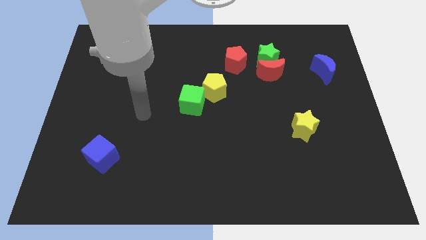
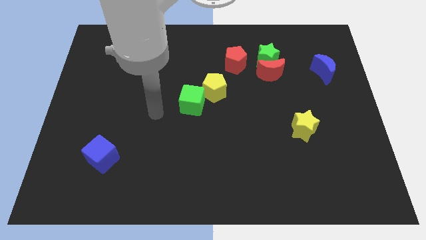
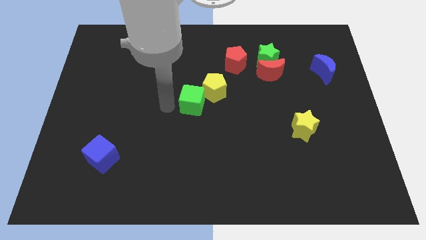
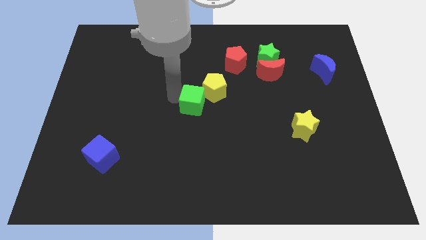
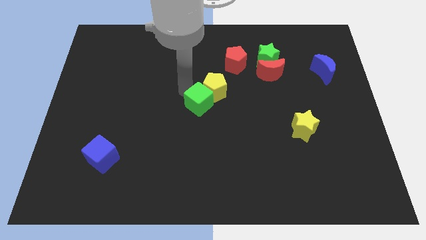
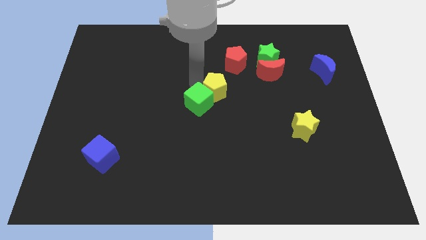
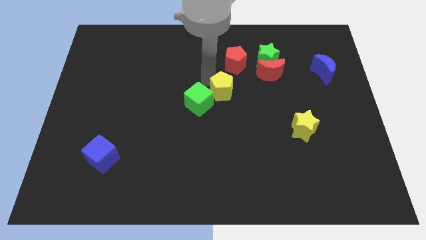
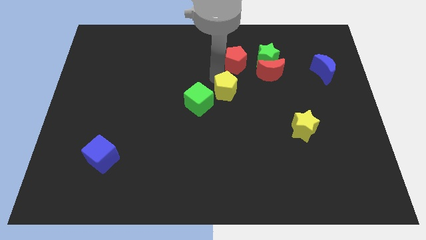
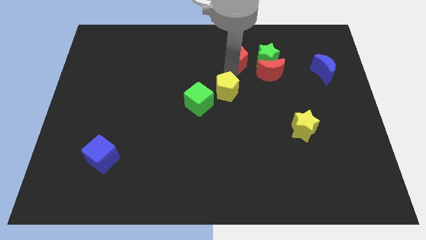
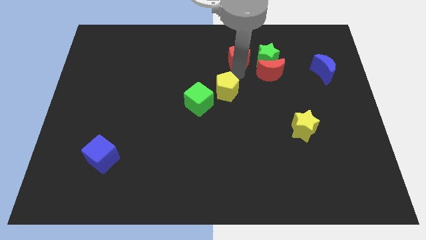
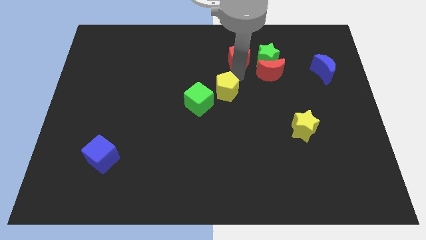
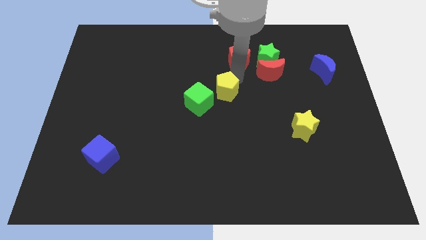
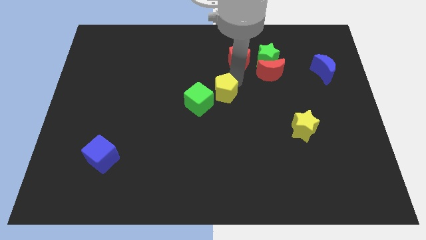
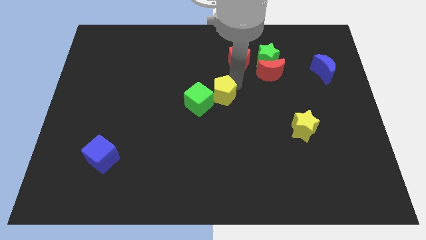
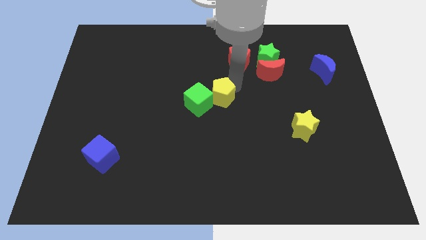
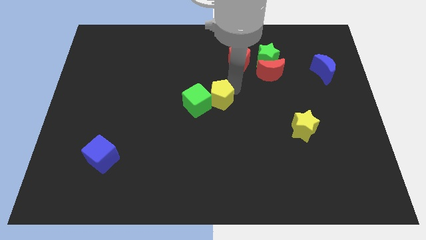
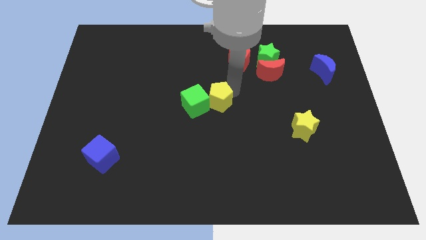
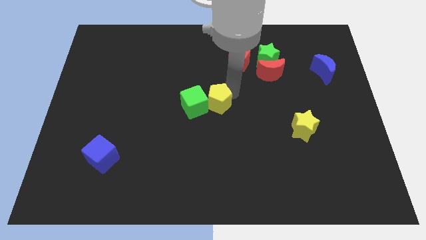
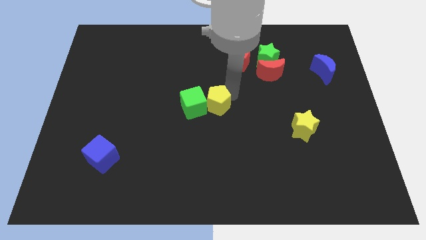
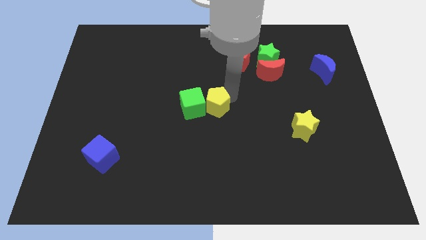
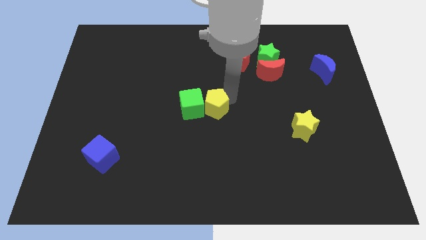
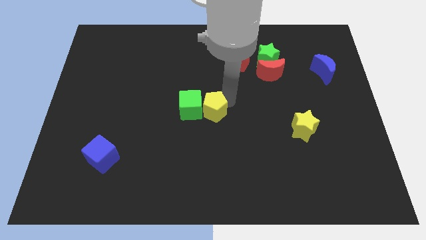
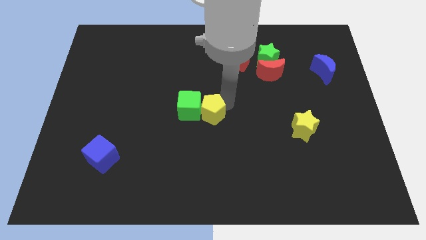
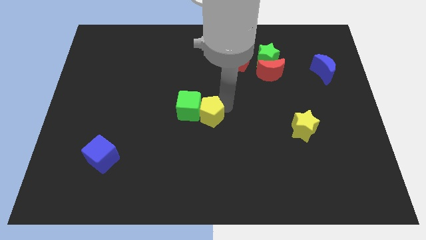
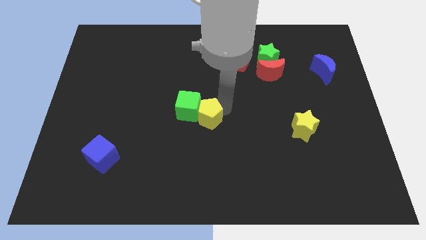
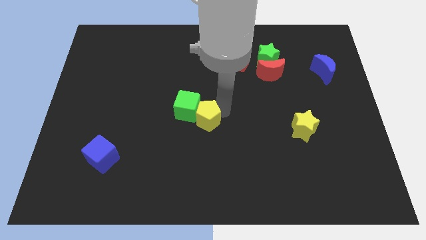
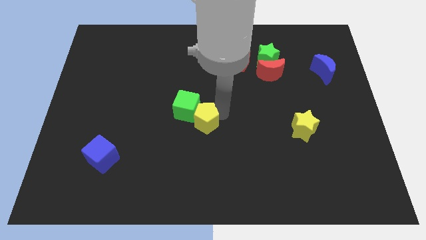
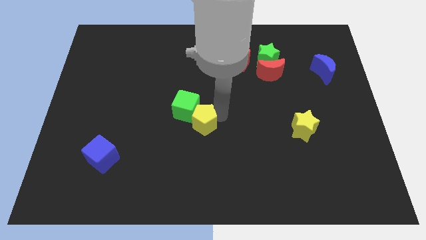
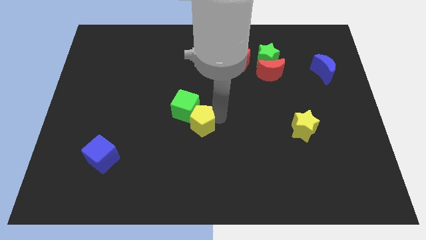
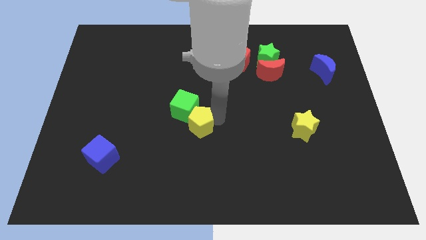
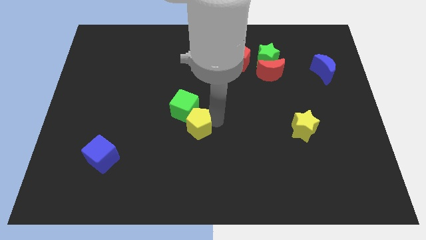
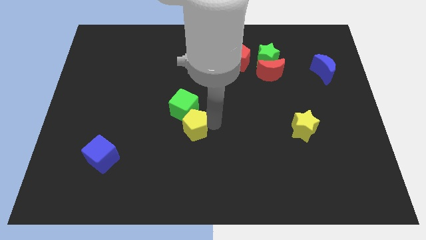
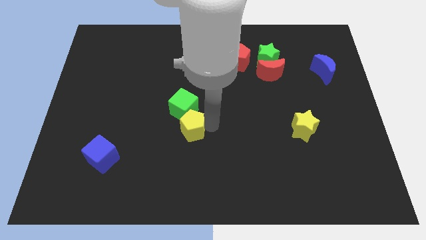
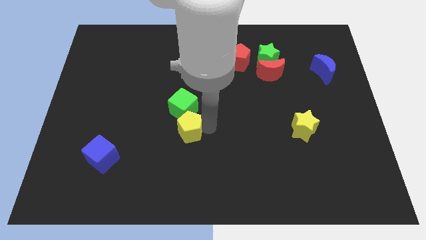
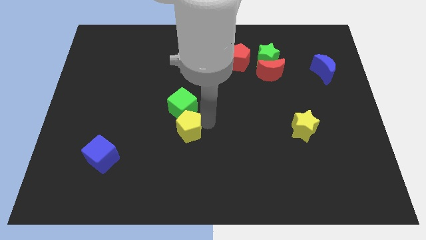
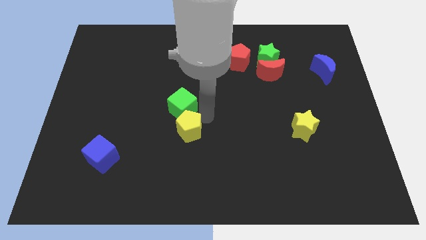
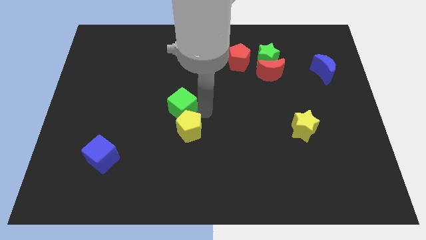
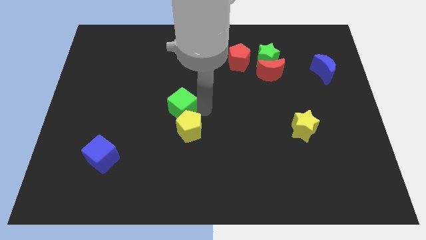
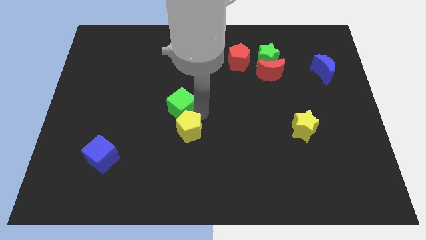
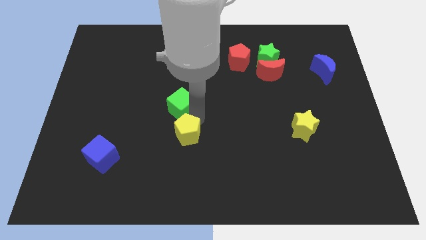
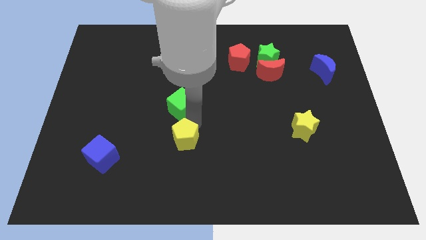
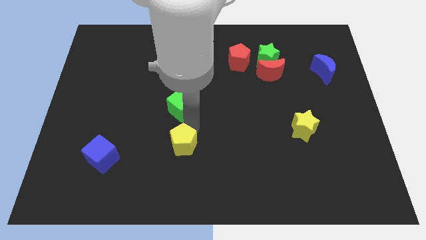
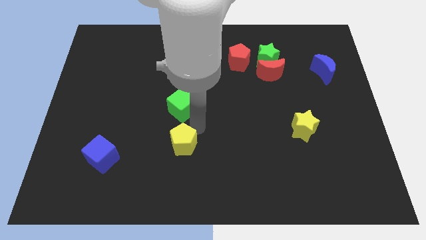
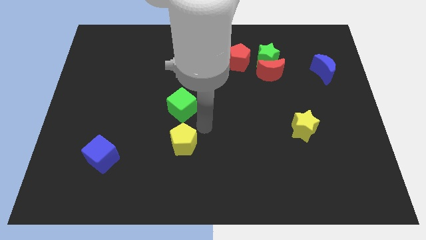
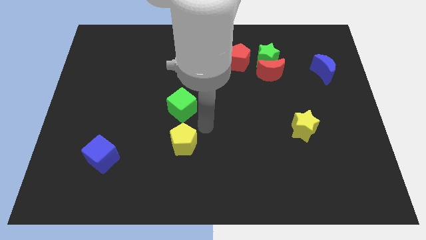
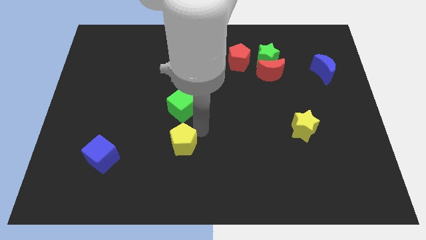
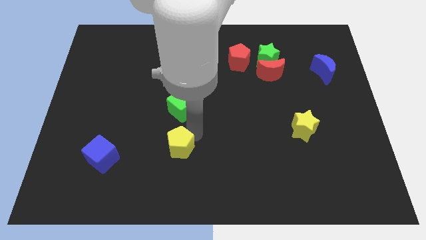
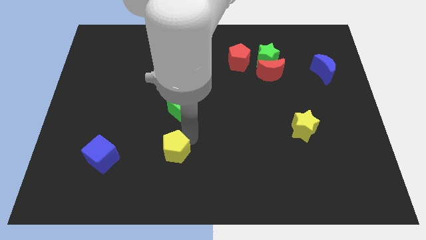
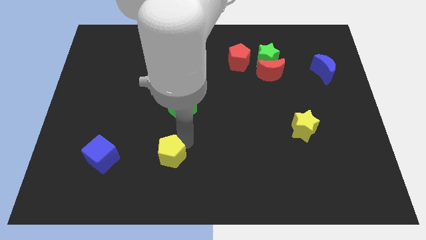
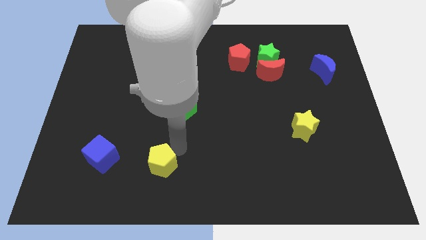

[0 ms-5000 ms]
slide the yellow pentagon downwards and to the left

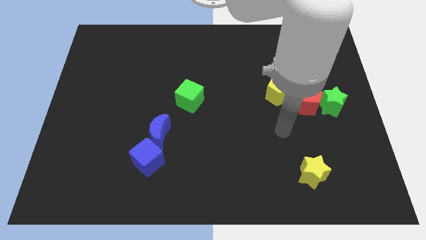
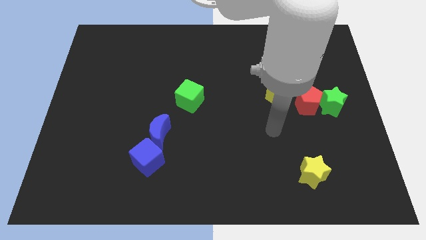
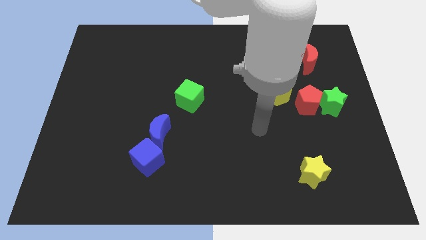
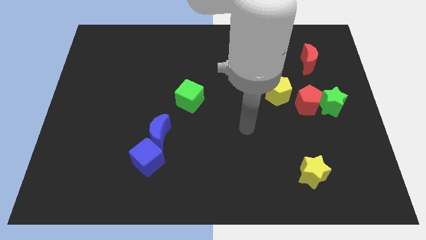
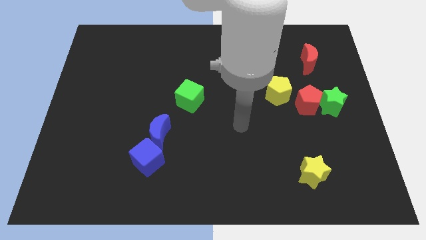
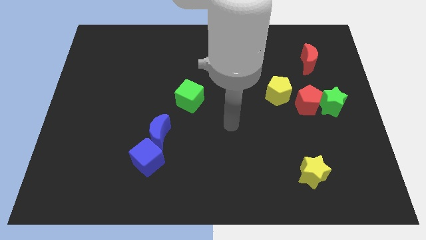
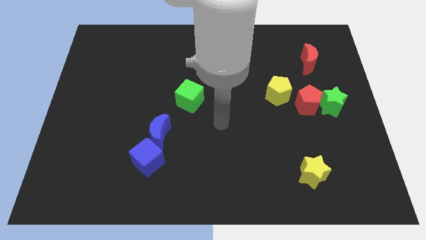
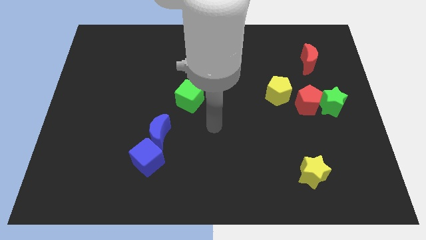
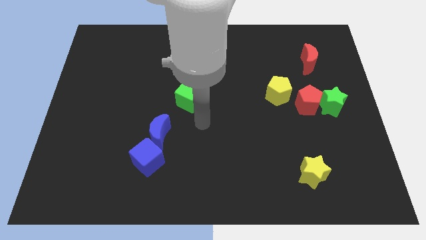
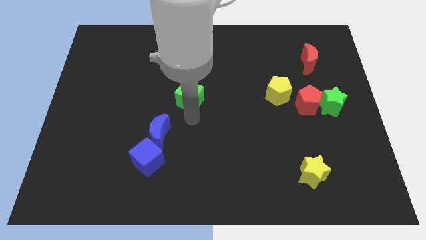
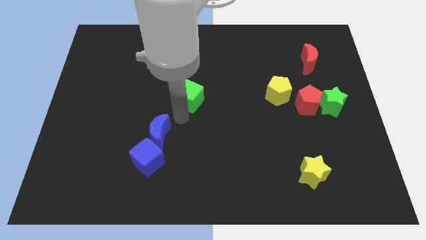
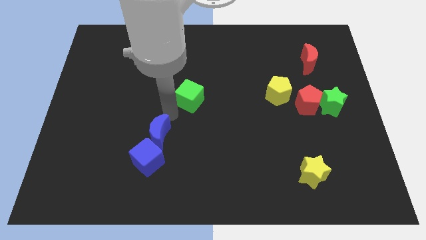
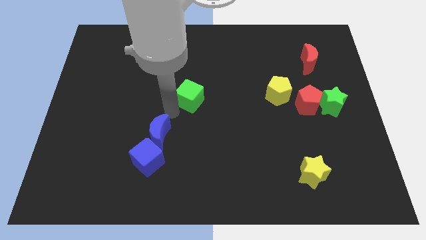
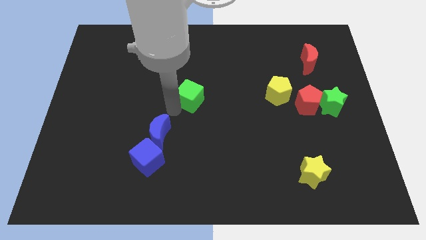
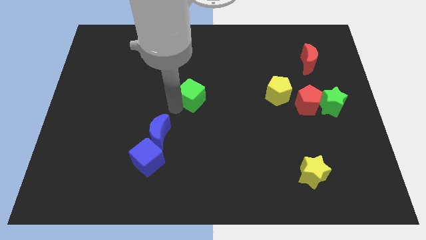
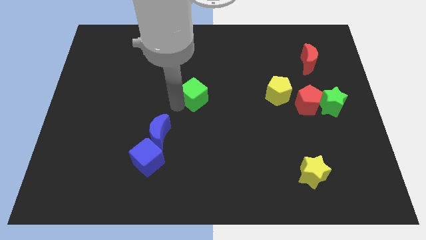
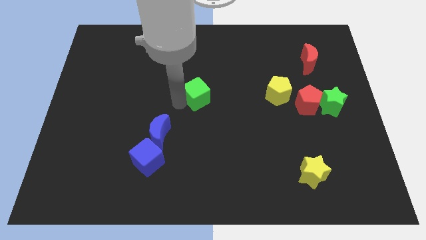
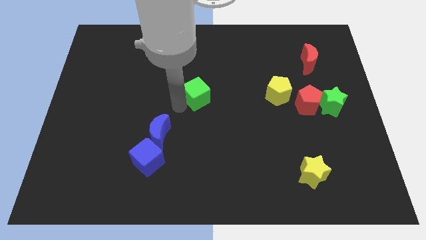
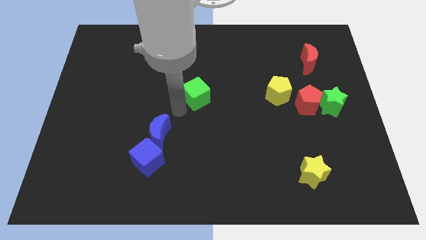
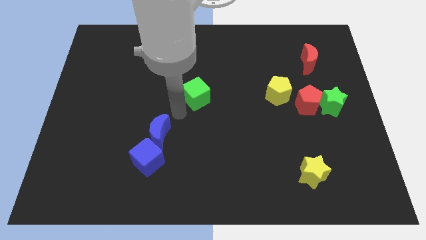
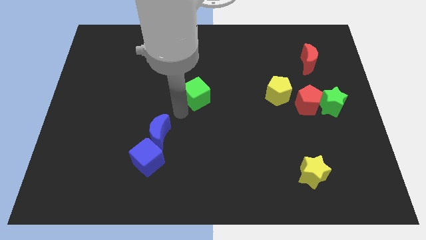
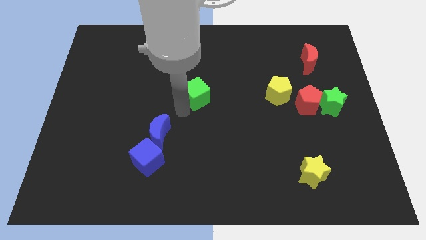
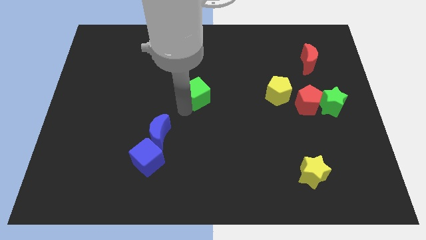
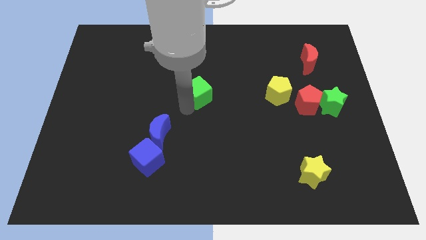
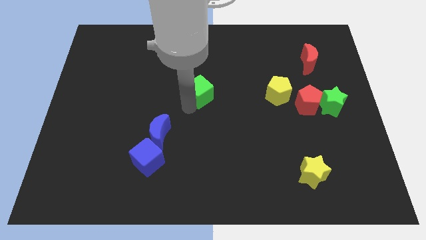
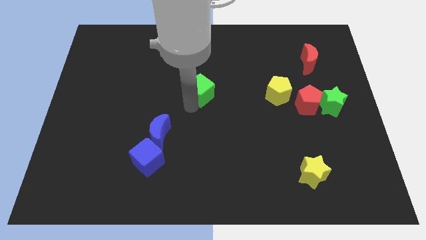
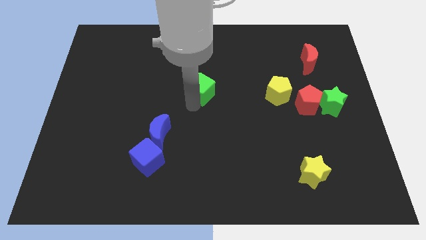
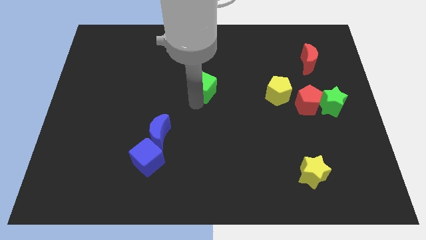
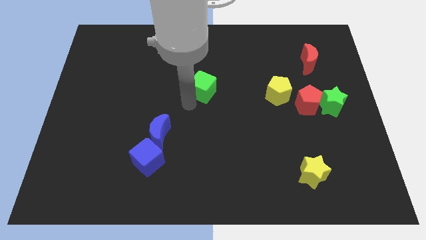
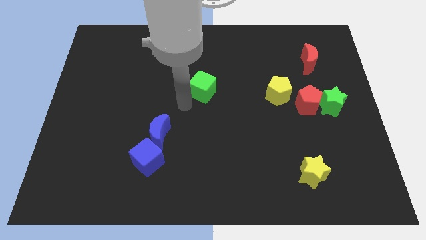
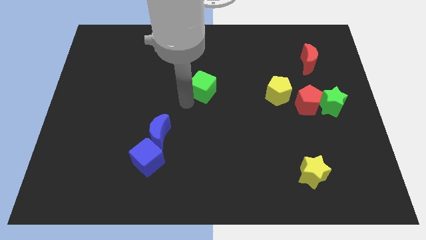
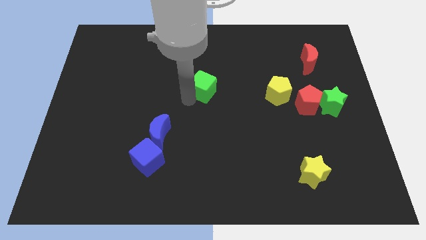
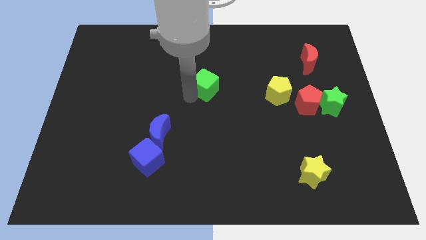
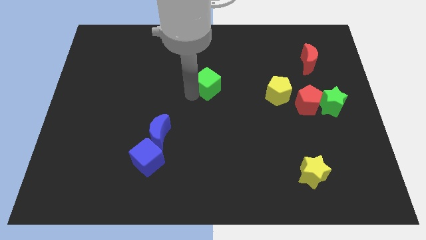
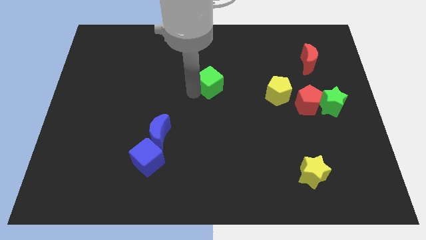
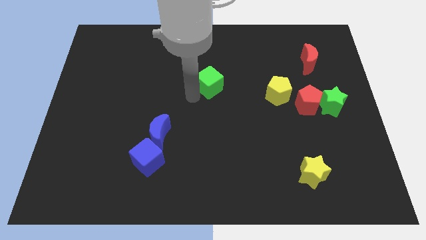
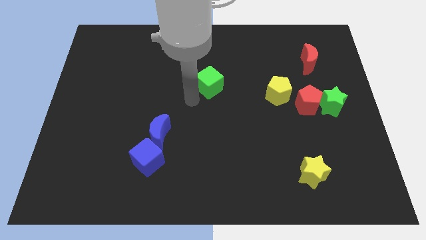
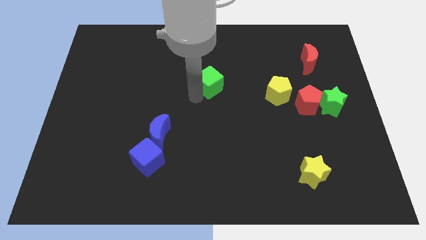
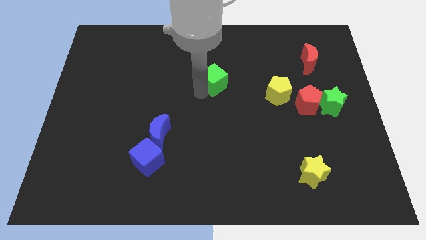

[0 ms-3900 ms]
push the green cube somewhat upwards and then to the right
